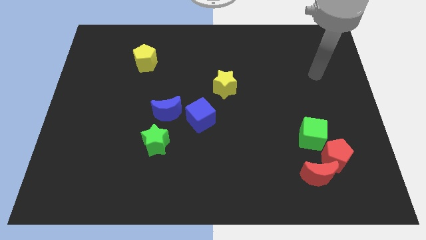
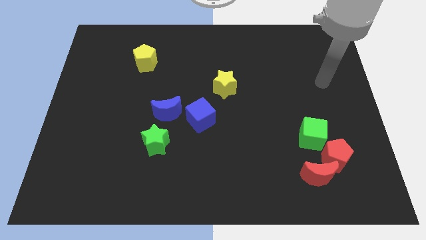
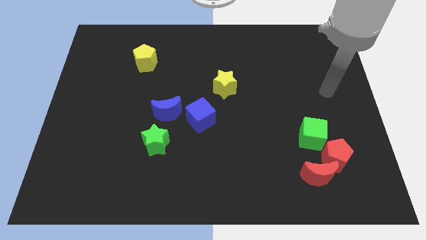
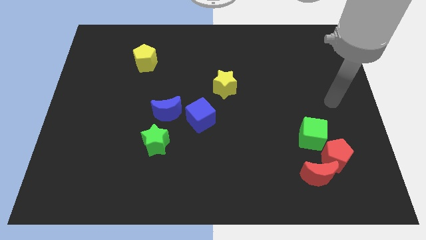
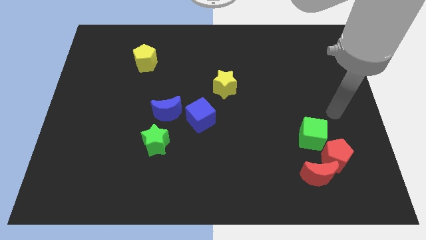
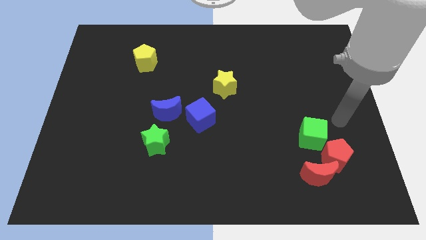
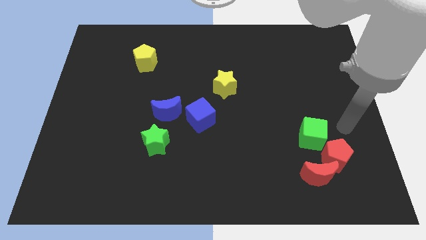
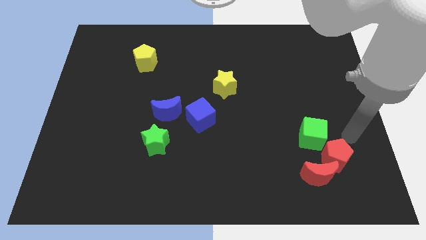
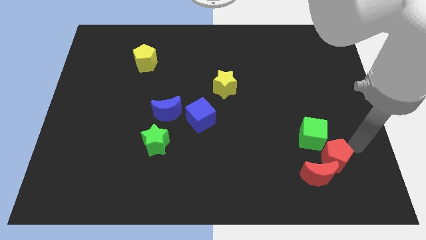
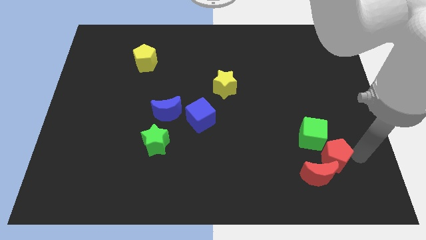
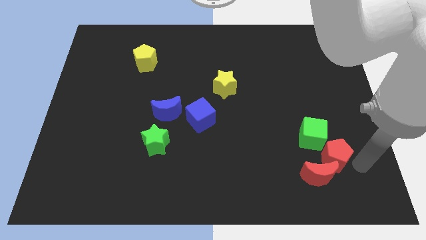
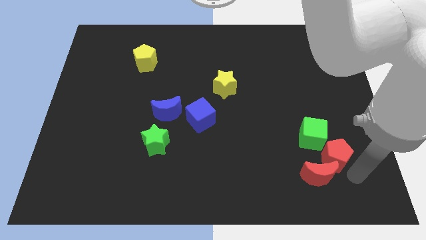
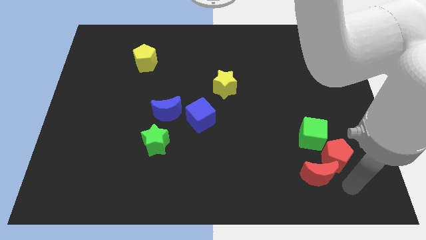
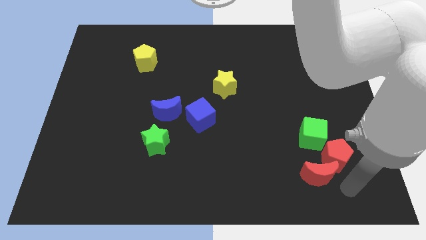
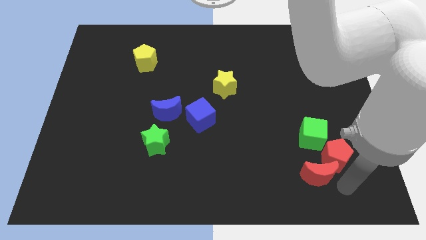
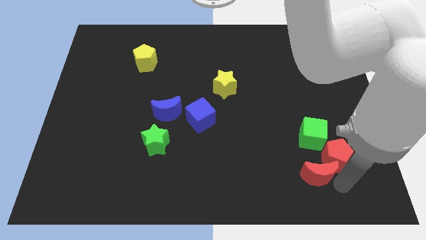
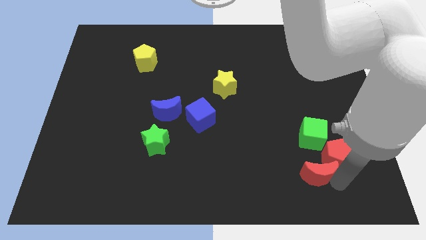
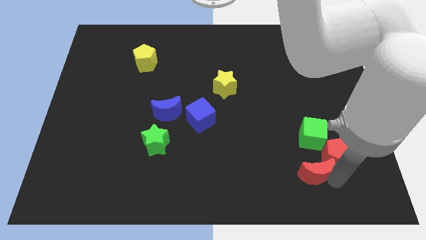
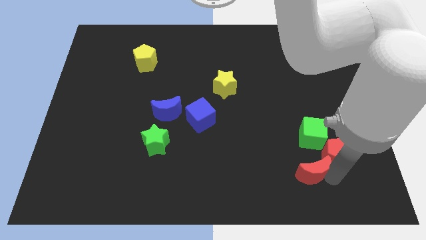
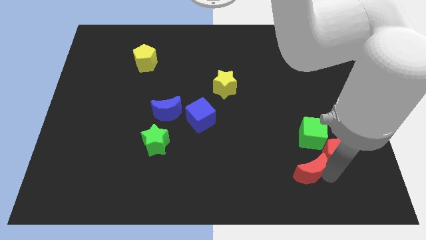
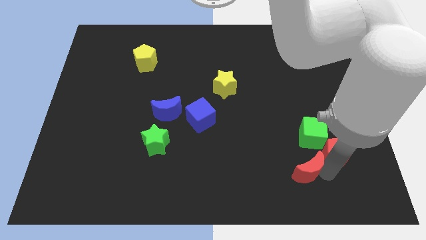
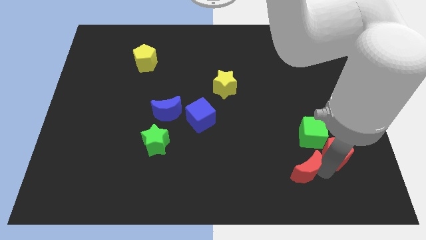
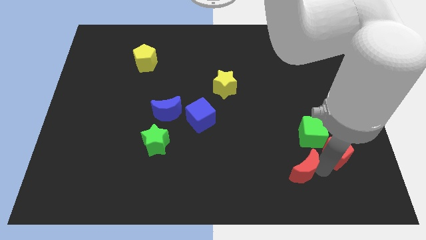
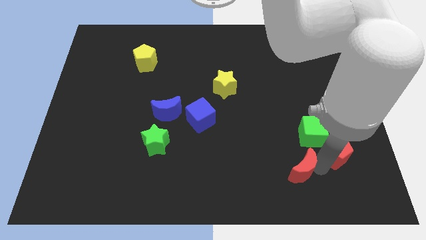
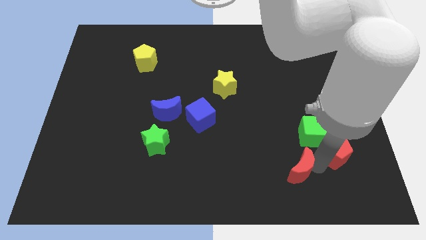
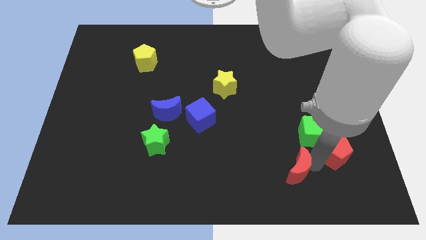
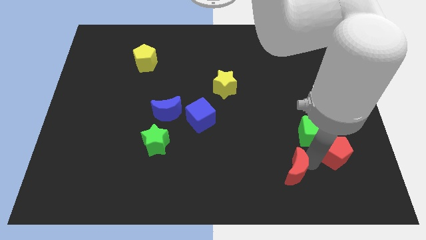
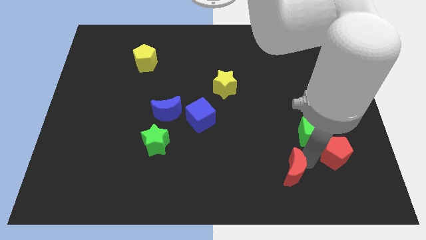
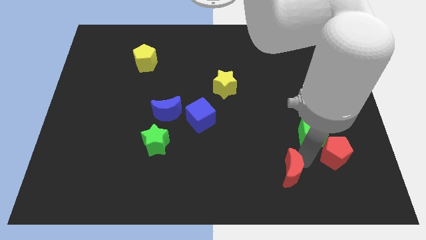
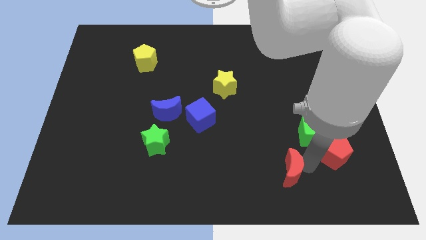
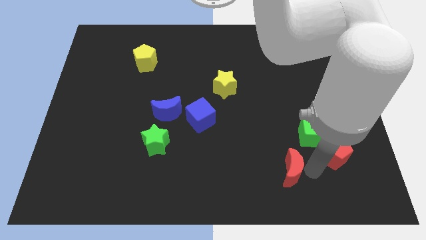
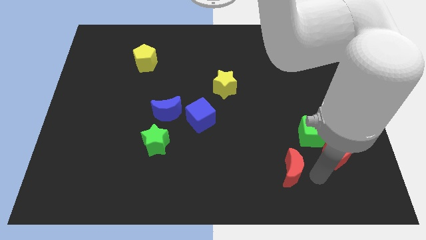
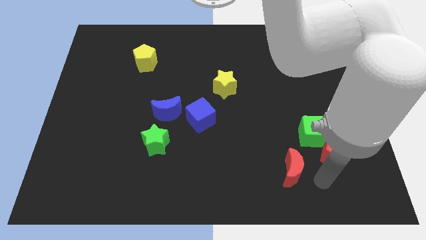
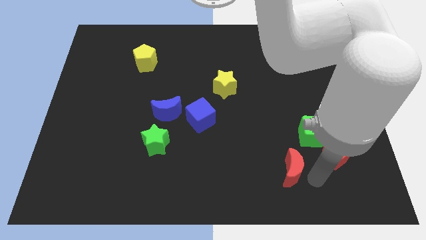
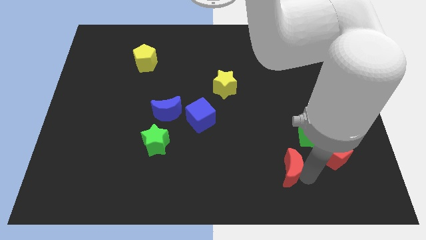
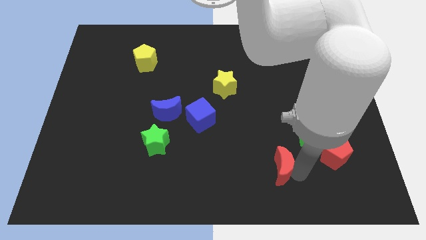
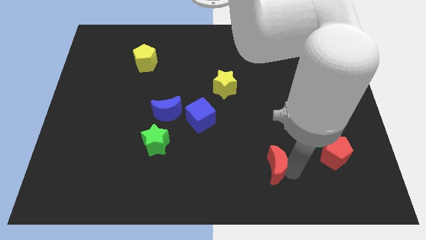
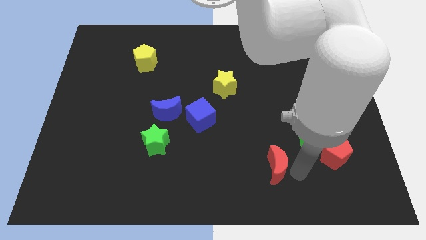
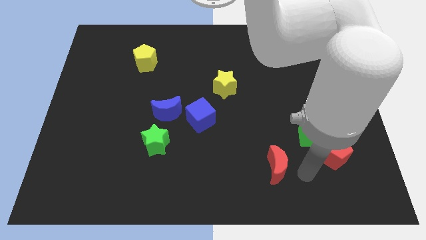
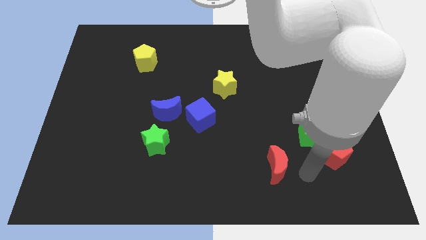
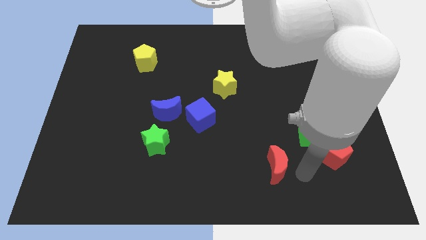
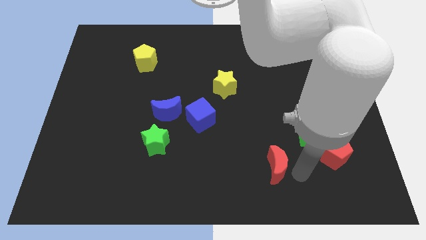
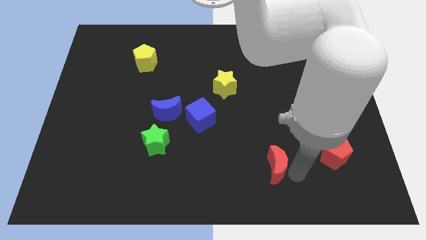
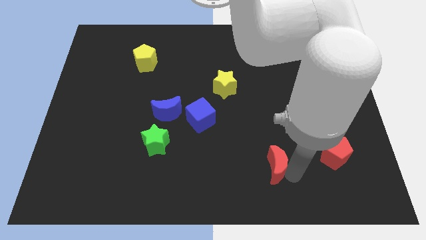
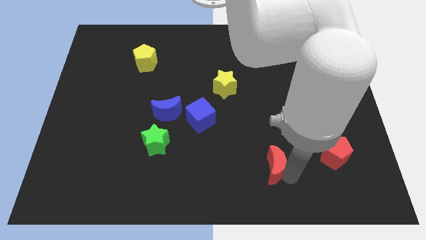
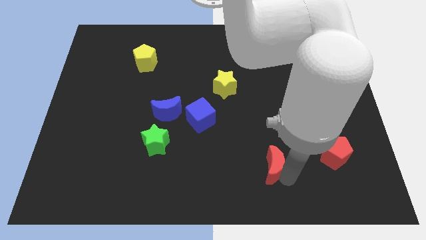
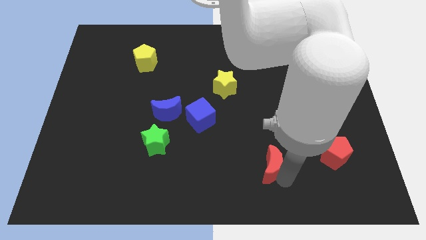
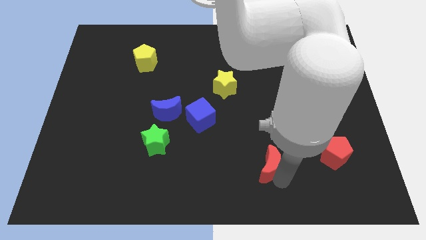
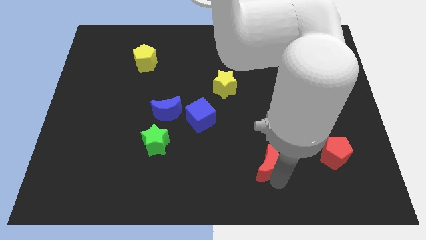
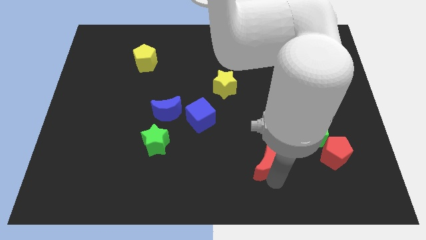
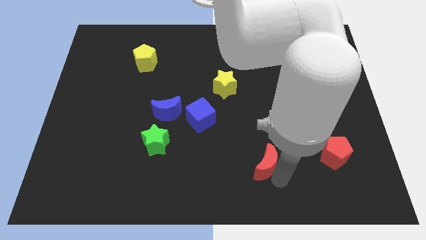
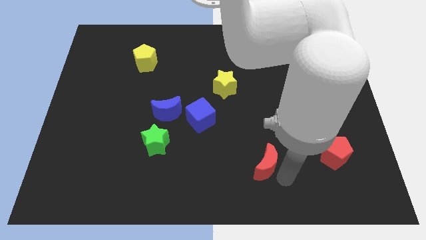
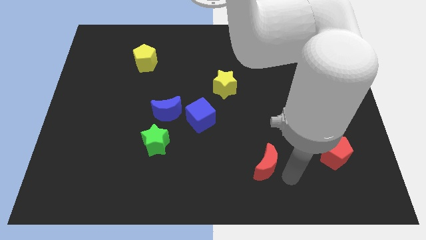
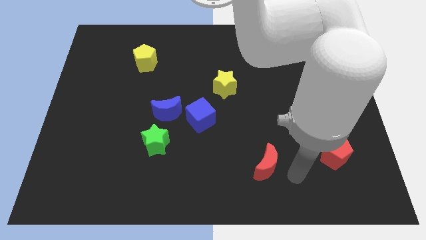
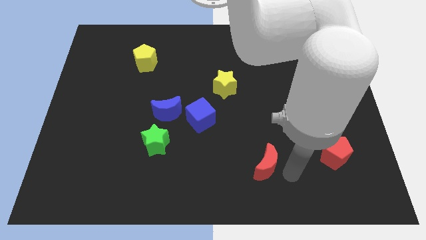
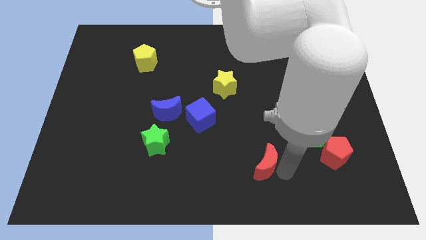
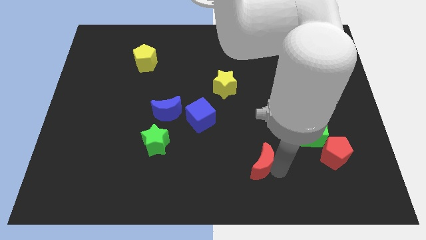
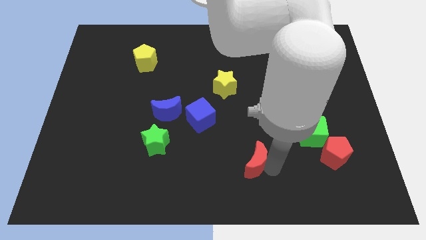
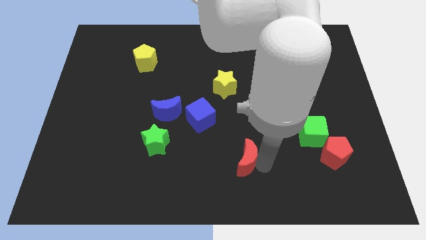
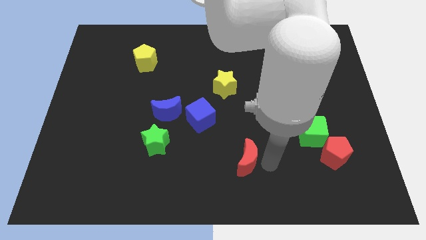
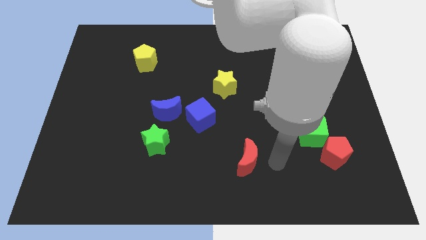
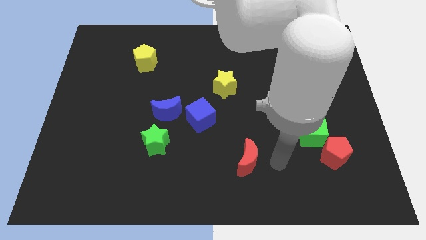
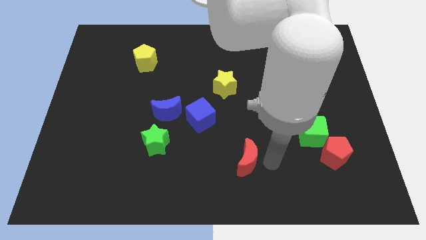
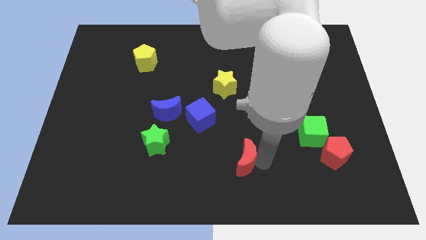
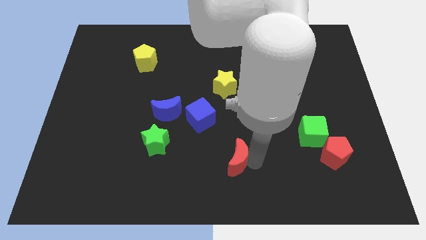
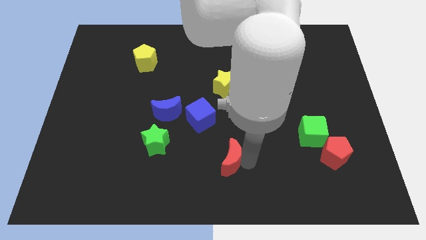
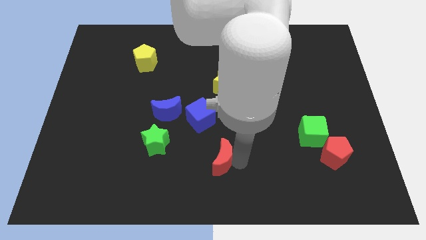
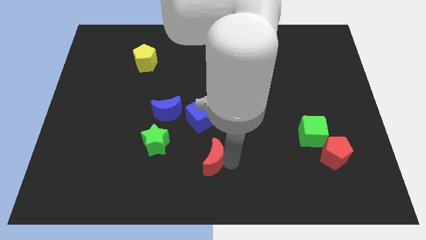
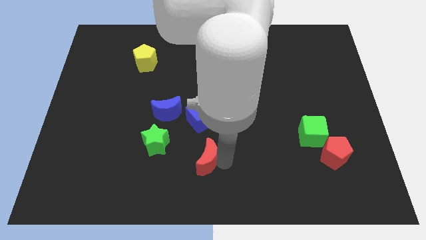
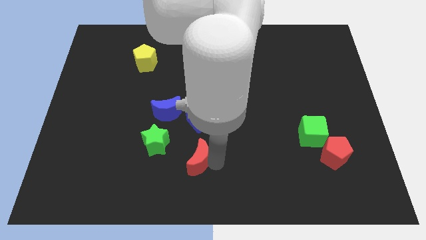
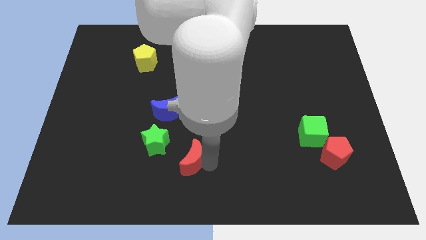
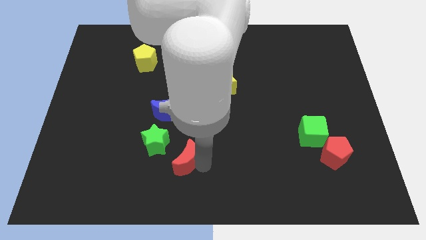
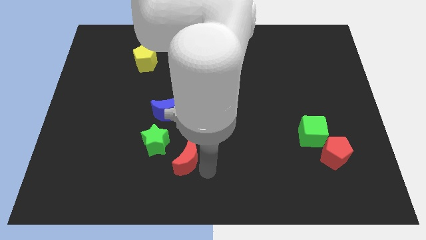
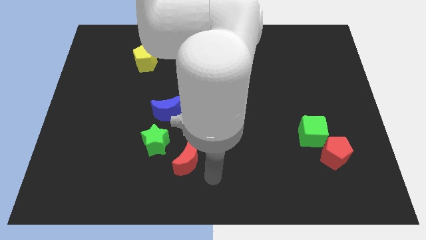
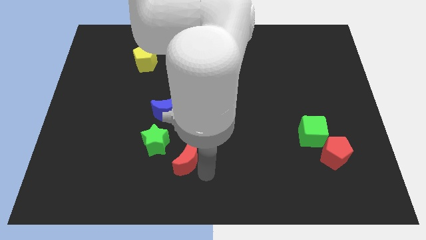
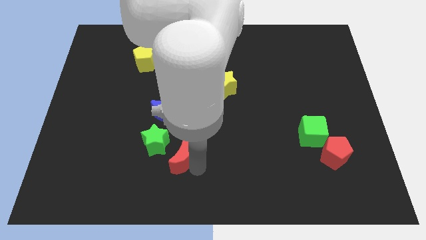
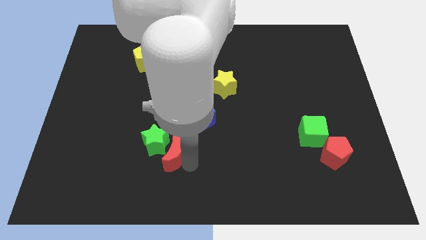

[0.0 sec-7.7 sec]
put the red moon close to the green star
